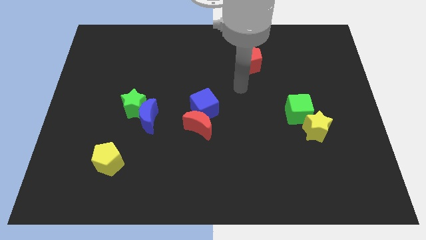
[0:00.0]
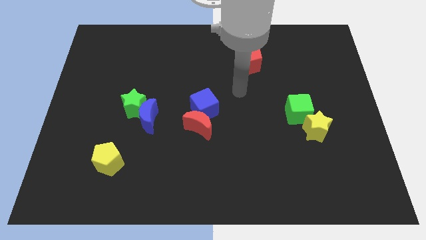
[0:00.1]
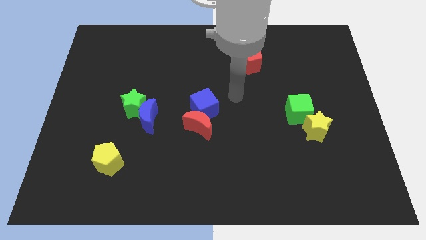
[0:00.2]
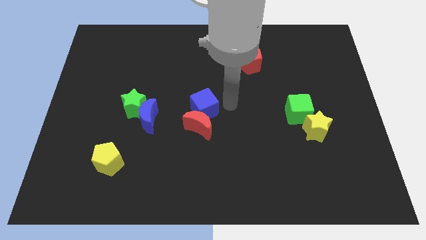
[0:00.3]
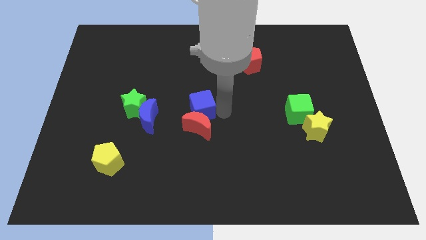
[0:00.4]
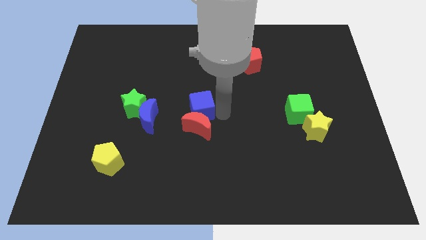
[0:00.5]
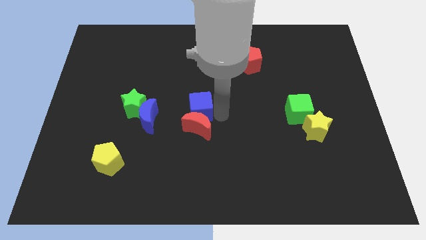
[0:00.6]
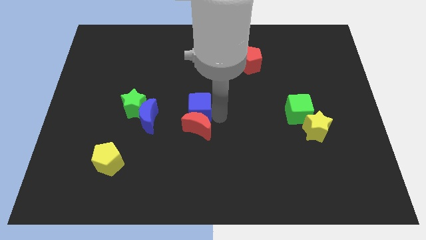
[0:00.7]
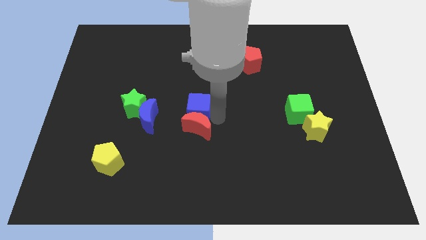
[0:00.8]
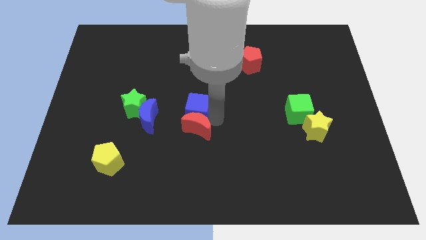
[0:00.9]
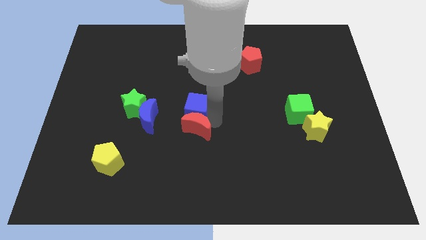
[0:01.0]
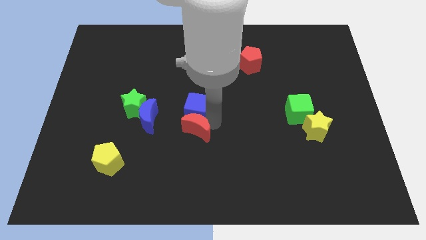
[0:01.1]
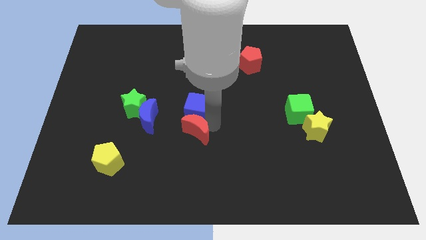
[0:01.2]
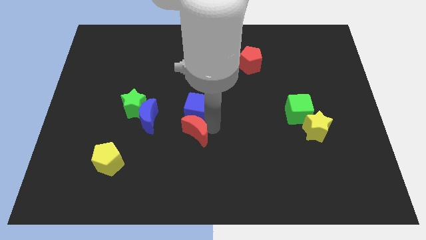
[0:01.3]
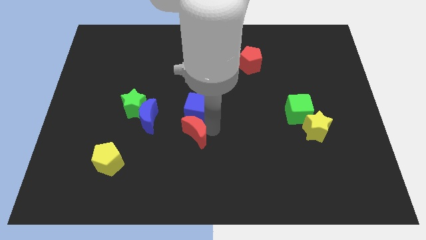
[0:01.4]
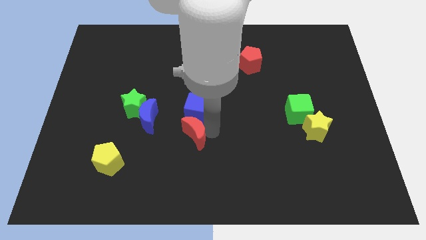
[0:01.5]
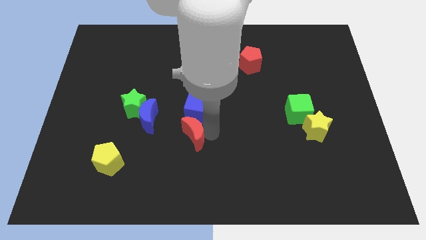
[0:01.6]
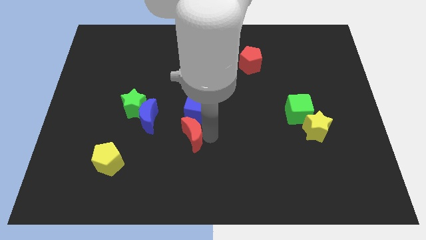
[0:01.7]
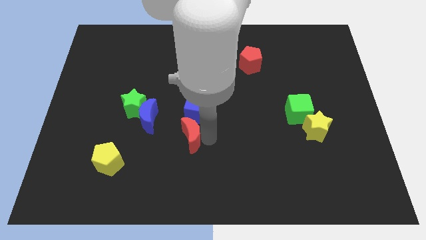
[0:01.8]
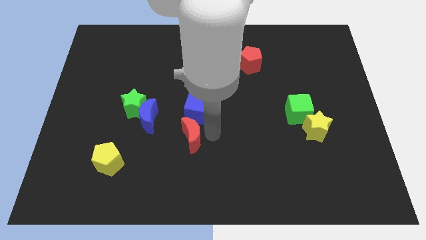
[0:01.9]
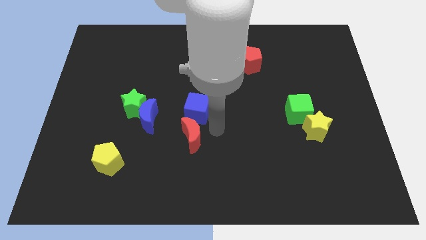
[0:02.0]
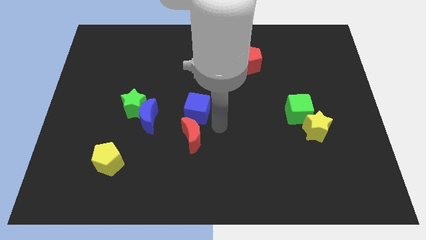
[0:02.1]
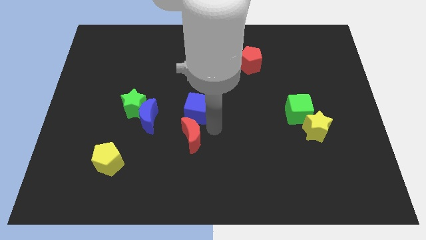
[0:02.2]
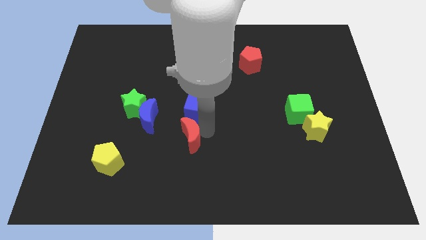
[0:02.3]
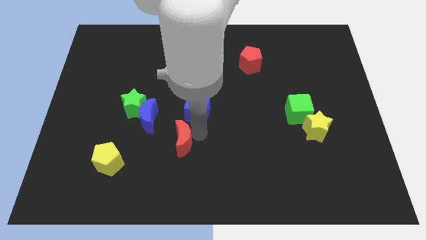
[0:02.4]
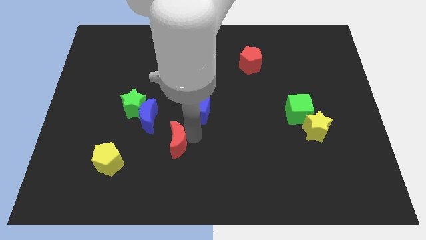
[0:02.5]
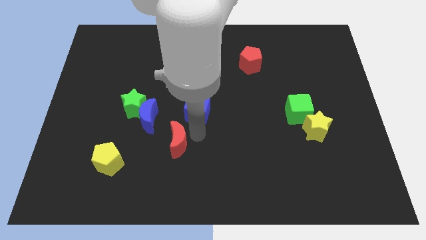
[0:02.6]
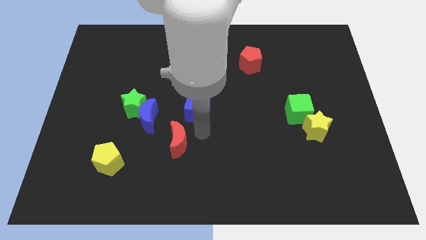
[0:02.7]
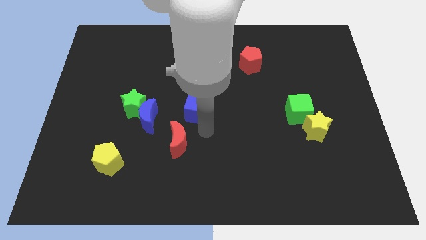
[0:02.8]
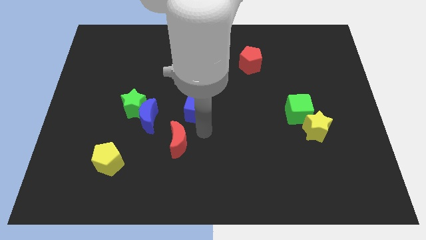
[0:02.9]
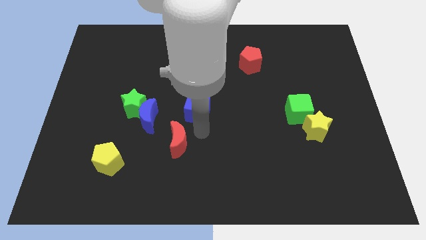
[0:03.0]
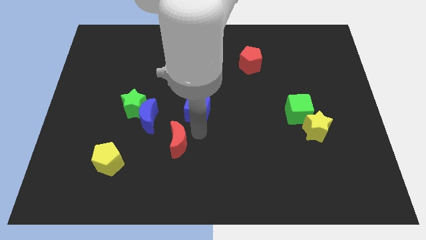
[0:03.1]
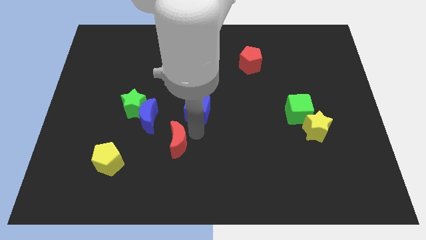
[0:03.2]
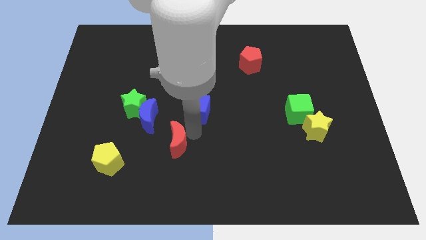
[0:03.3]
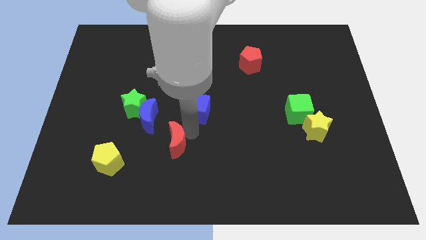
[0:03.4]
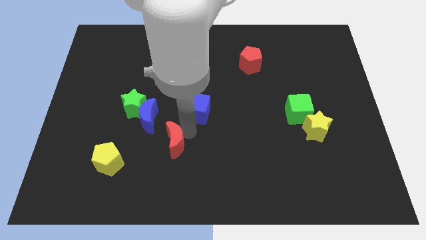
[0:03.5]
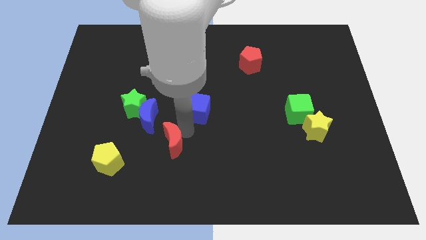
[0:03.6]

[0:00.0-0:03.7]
push the red moon a bit down and to the left

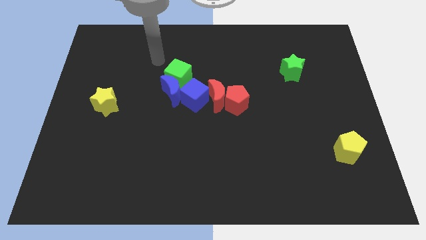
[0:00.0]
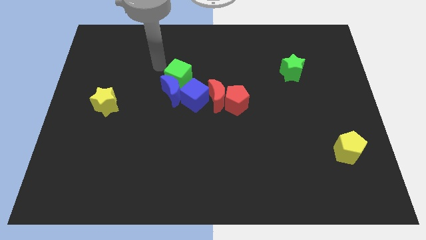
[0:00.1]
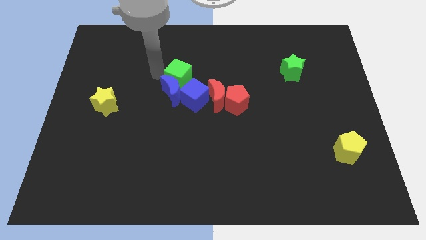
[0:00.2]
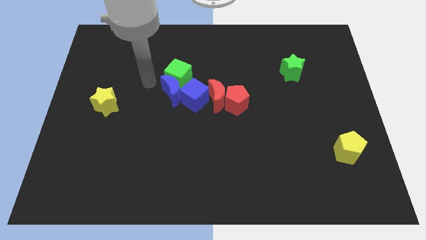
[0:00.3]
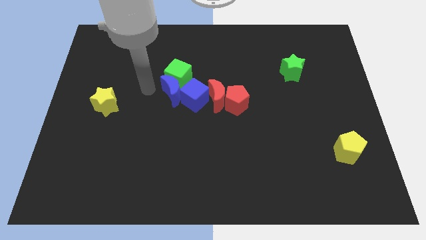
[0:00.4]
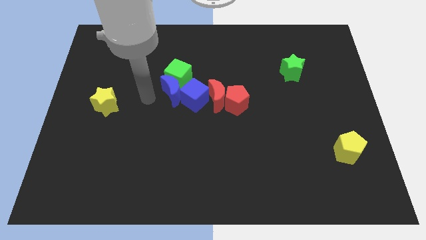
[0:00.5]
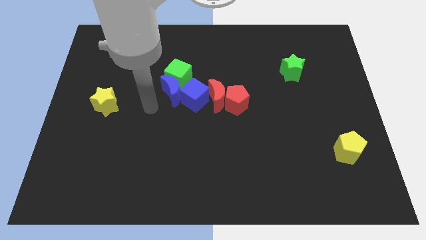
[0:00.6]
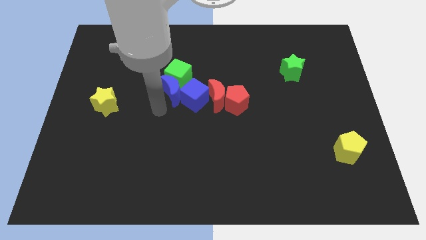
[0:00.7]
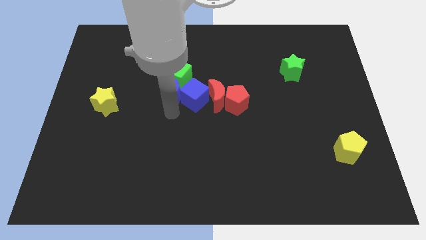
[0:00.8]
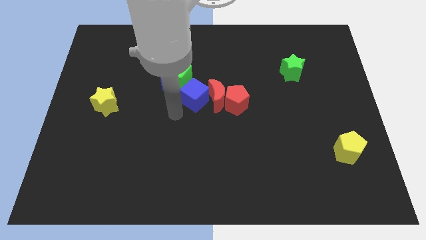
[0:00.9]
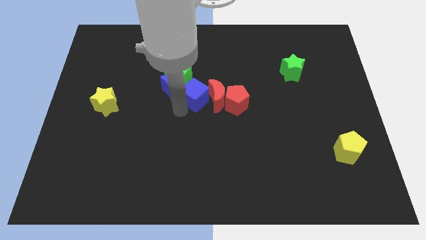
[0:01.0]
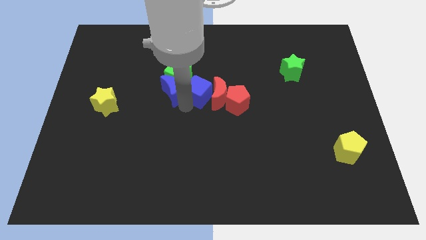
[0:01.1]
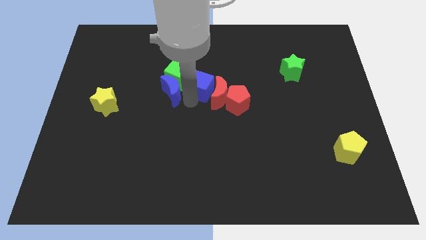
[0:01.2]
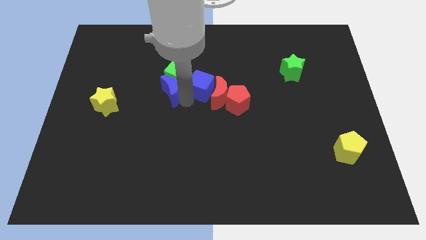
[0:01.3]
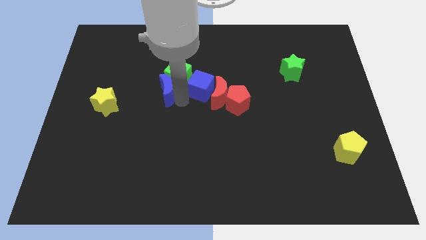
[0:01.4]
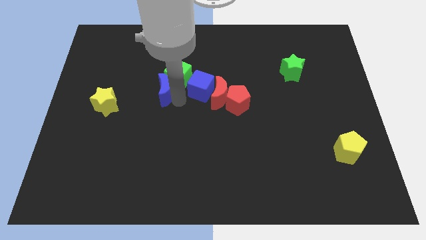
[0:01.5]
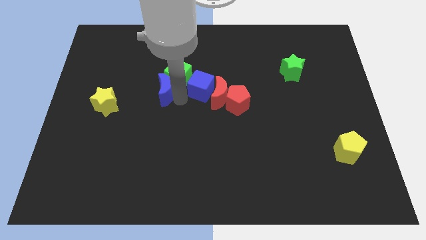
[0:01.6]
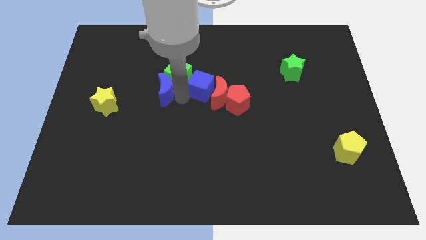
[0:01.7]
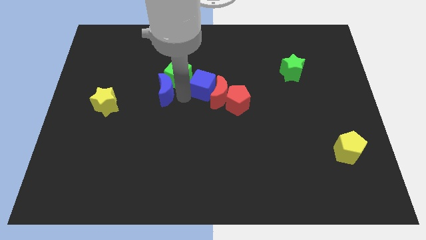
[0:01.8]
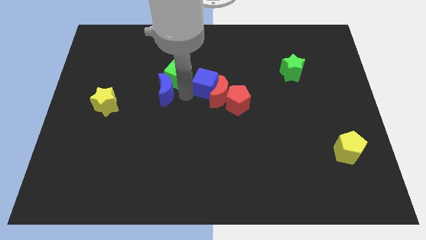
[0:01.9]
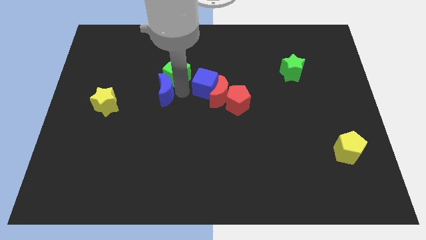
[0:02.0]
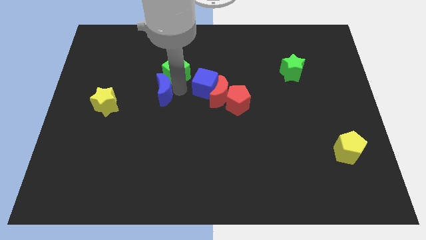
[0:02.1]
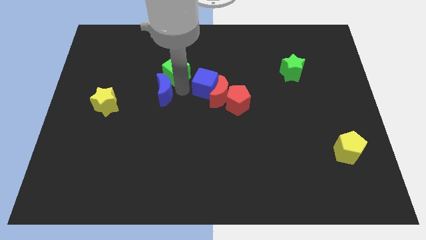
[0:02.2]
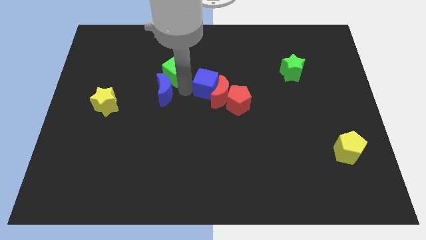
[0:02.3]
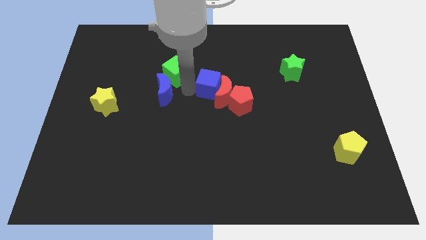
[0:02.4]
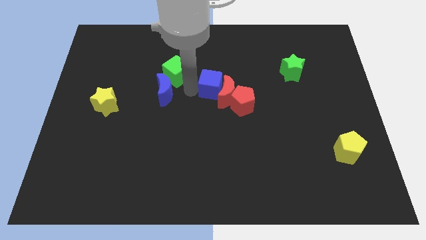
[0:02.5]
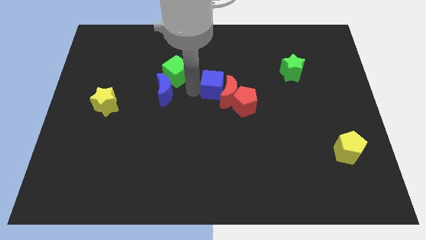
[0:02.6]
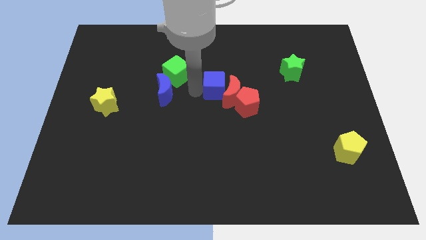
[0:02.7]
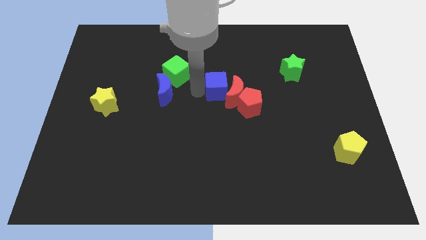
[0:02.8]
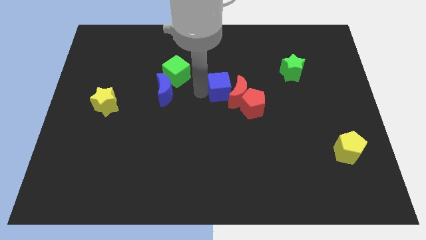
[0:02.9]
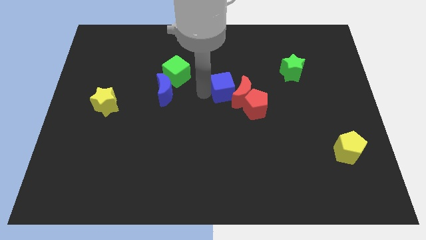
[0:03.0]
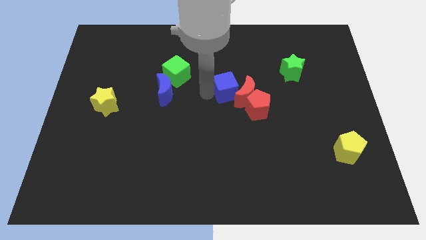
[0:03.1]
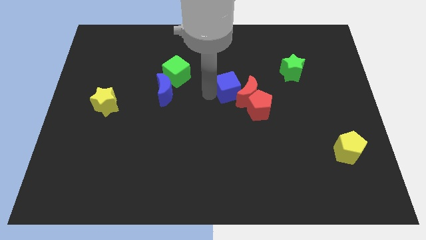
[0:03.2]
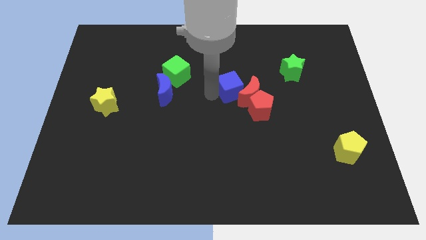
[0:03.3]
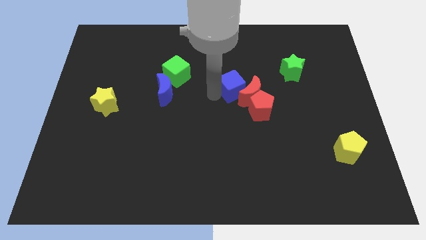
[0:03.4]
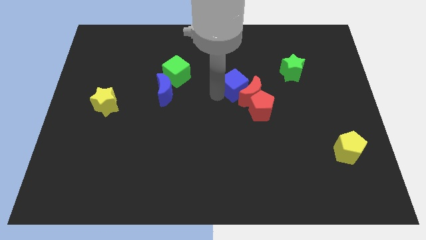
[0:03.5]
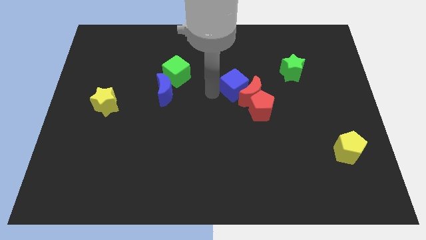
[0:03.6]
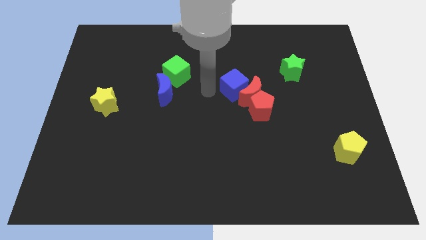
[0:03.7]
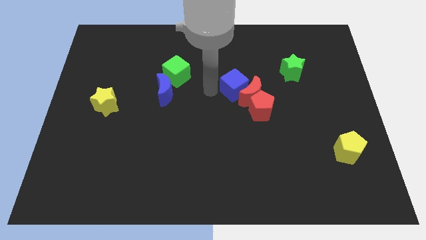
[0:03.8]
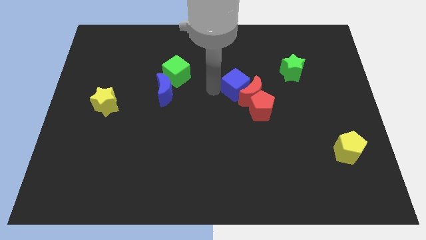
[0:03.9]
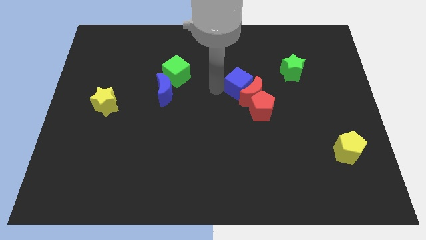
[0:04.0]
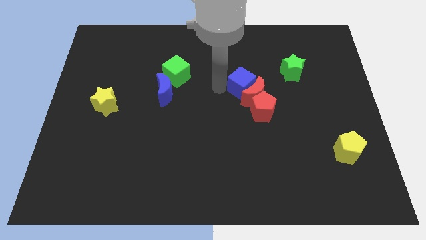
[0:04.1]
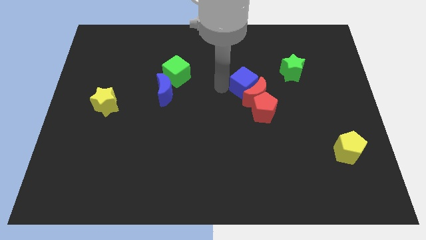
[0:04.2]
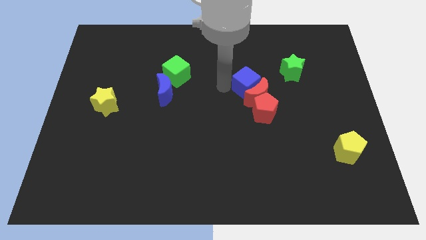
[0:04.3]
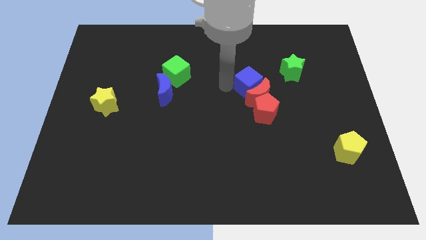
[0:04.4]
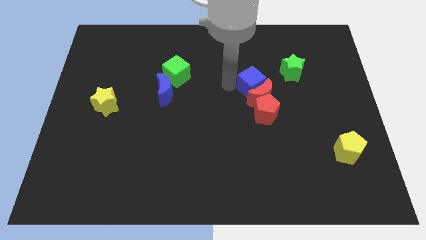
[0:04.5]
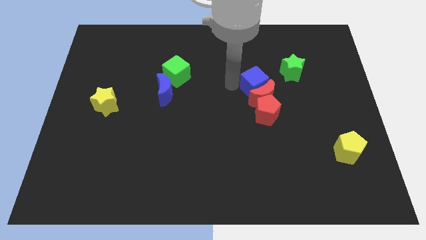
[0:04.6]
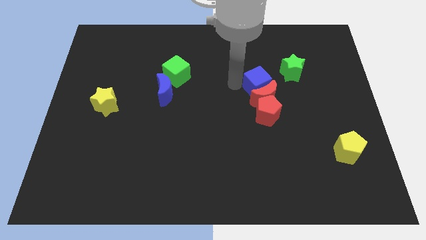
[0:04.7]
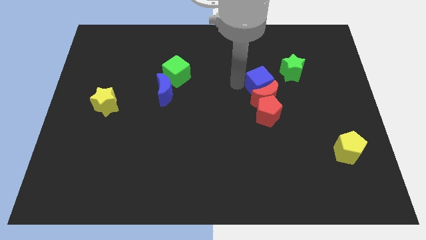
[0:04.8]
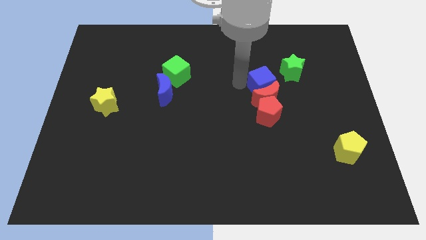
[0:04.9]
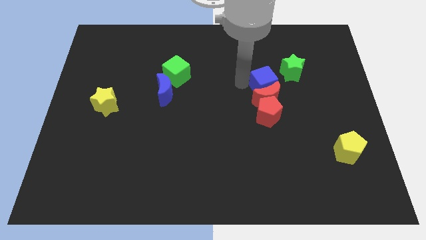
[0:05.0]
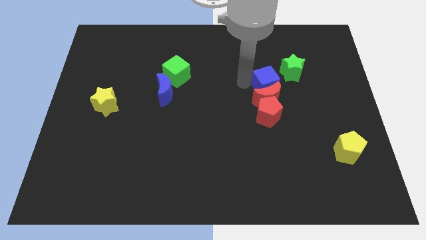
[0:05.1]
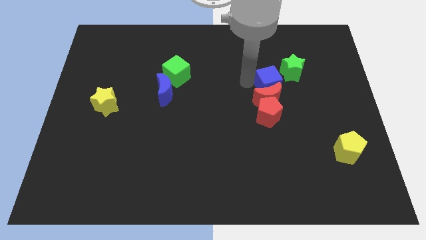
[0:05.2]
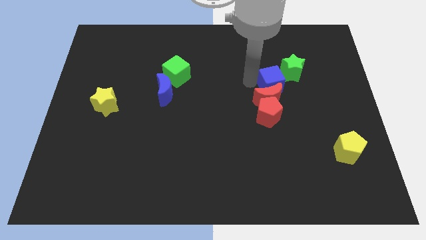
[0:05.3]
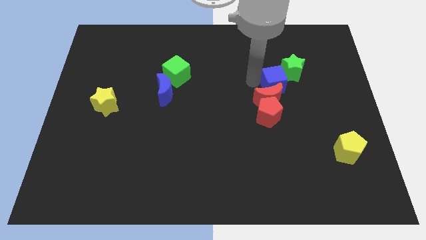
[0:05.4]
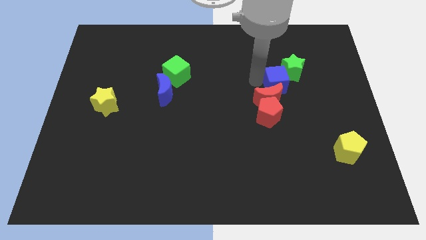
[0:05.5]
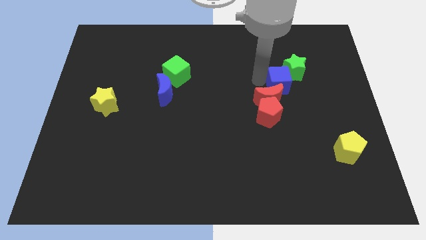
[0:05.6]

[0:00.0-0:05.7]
push the blue cube to the right
